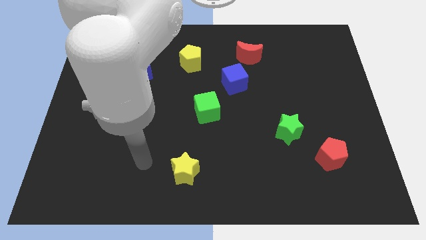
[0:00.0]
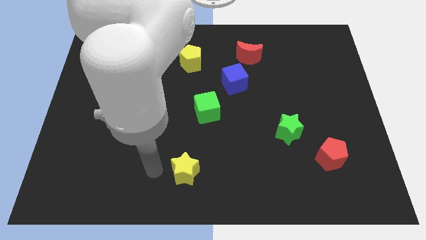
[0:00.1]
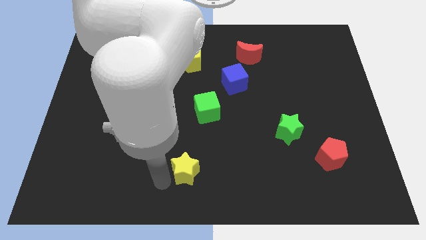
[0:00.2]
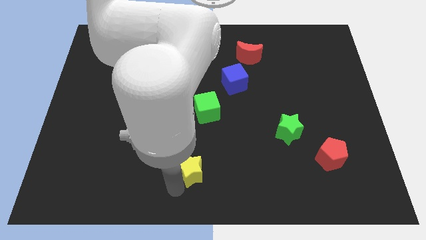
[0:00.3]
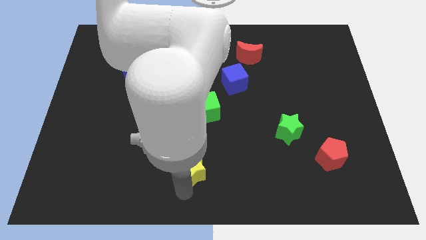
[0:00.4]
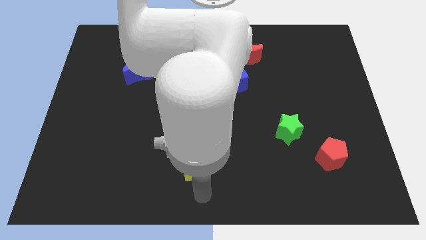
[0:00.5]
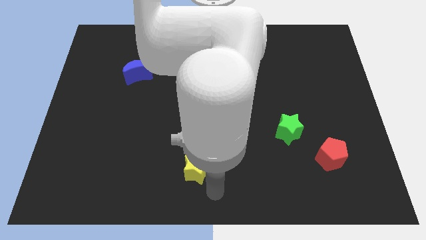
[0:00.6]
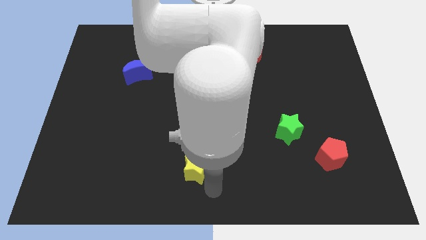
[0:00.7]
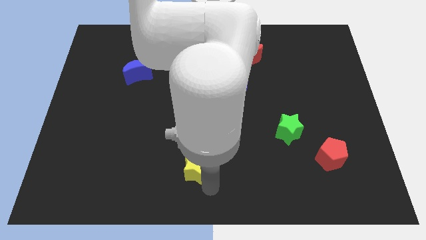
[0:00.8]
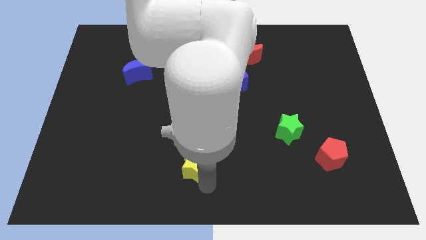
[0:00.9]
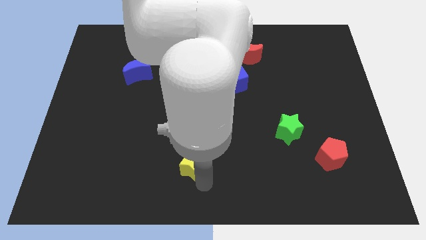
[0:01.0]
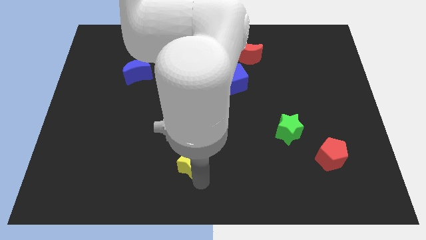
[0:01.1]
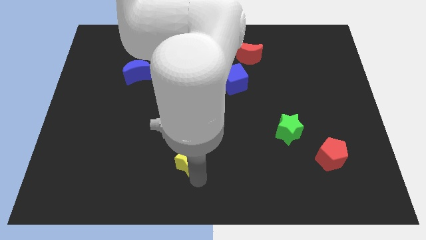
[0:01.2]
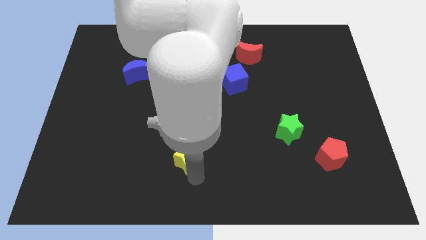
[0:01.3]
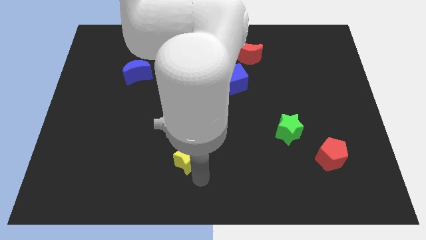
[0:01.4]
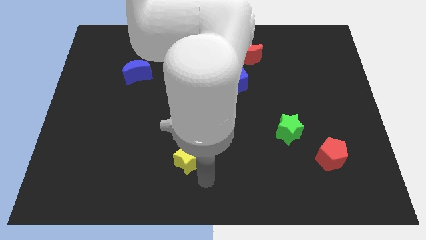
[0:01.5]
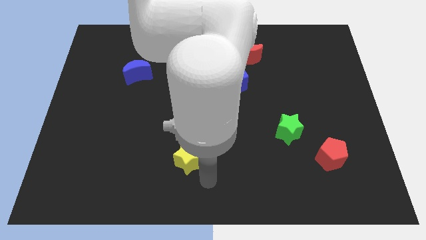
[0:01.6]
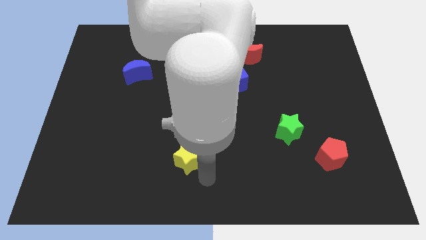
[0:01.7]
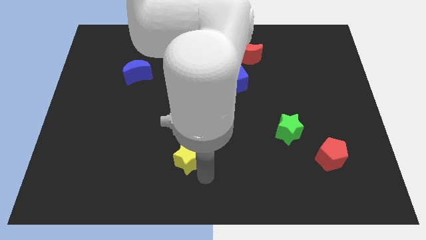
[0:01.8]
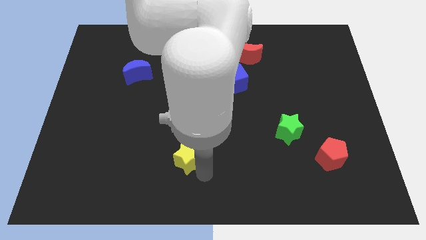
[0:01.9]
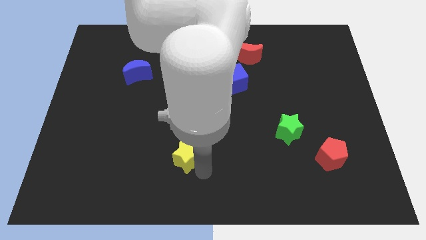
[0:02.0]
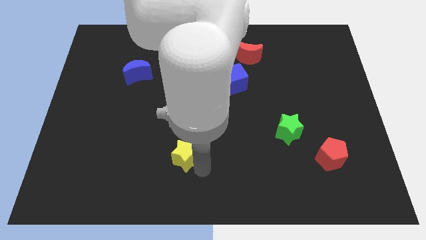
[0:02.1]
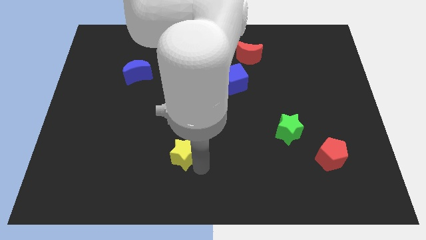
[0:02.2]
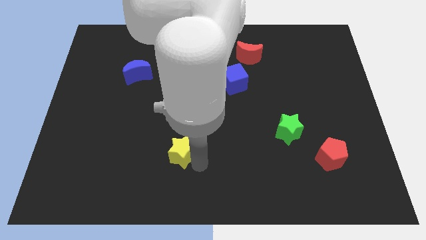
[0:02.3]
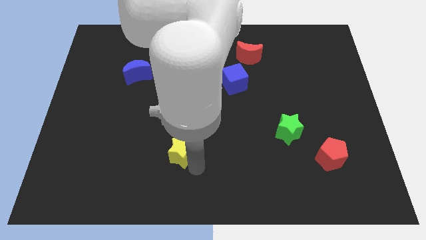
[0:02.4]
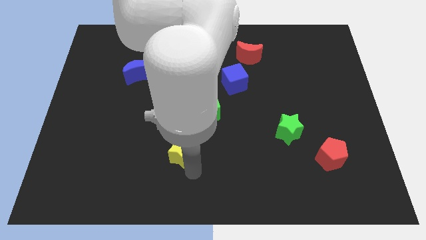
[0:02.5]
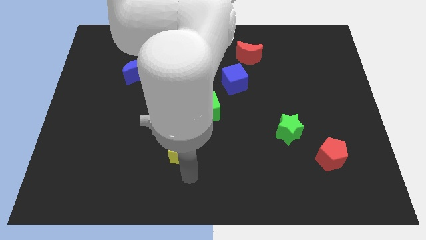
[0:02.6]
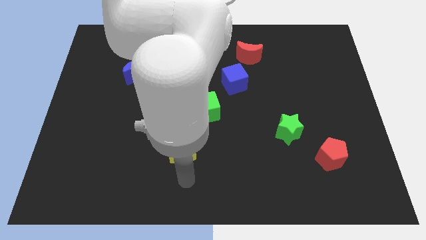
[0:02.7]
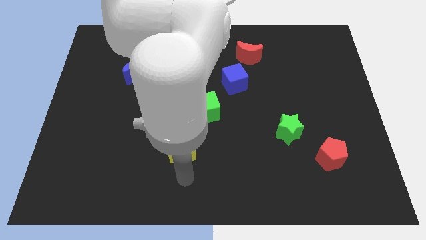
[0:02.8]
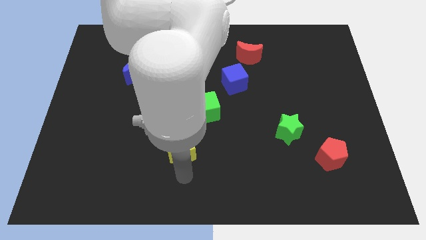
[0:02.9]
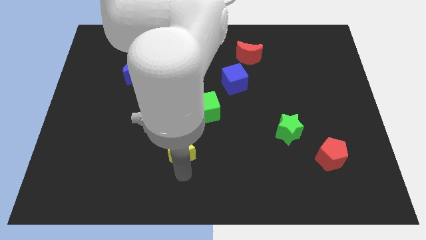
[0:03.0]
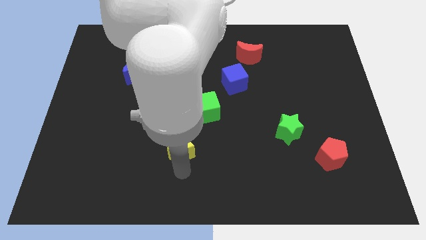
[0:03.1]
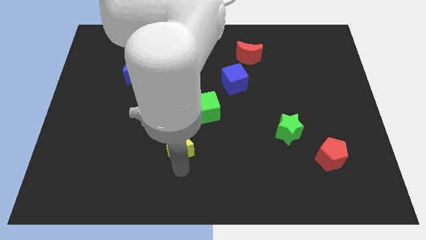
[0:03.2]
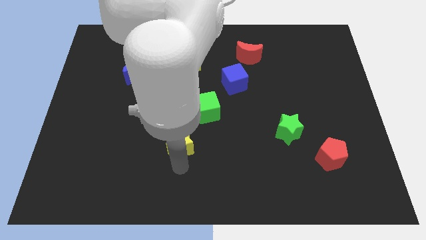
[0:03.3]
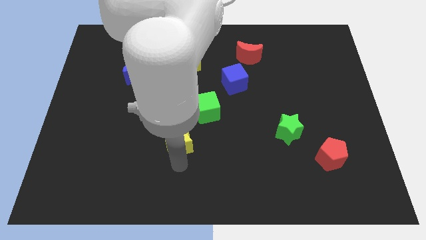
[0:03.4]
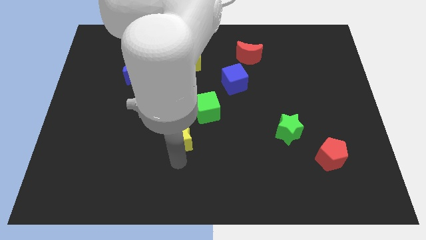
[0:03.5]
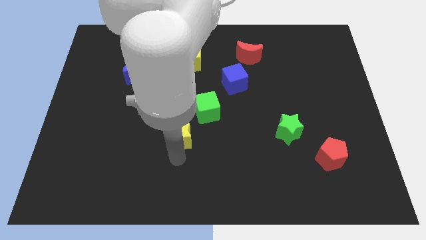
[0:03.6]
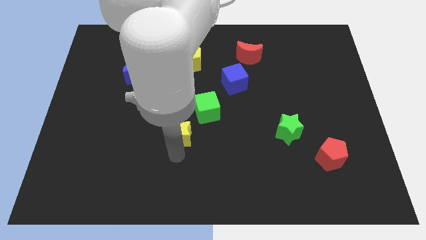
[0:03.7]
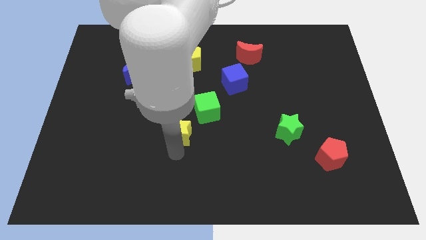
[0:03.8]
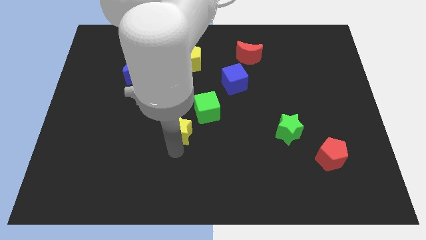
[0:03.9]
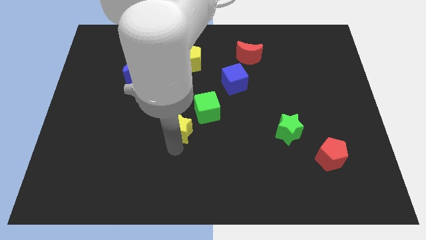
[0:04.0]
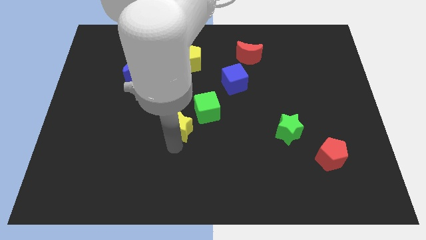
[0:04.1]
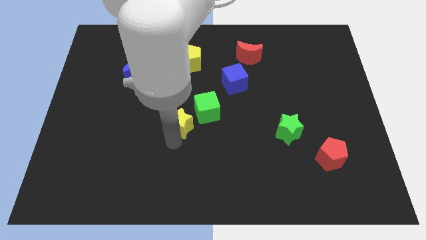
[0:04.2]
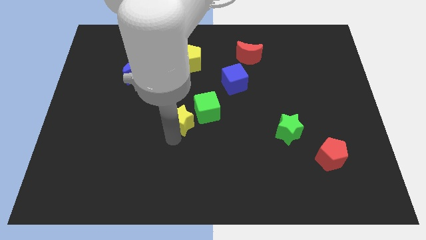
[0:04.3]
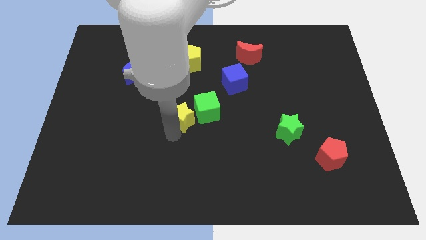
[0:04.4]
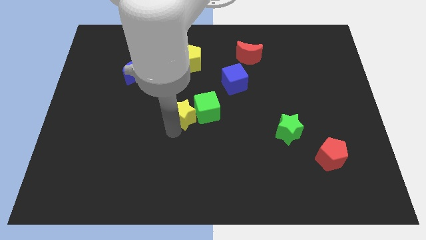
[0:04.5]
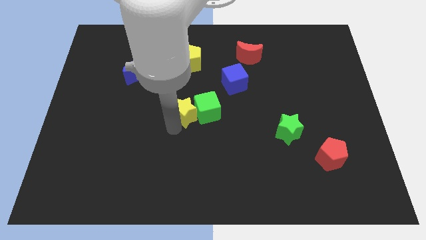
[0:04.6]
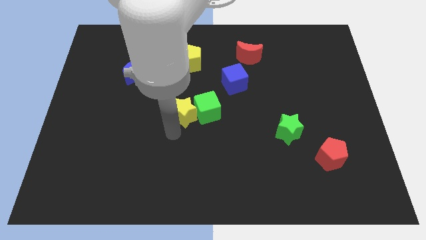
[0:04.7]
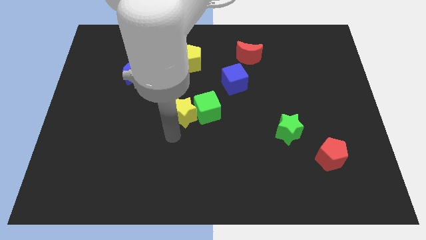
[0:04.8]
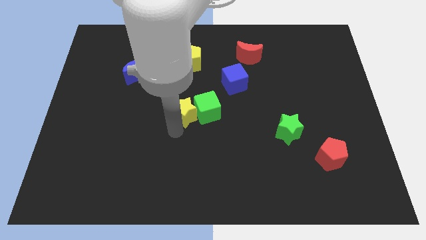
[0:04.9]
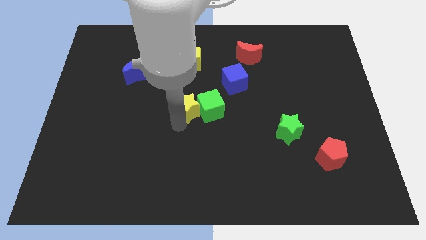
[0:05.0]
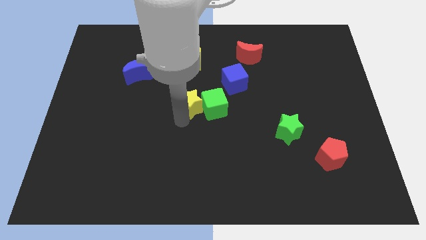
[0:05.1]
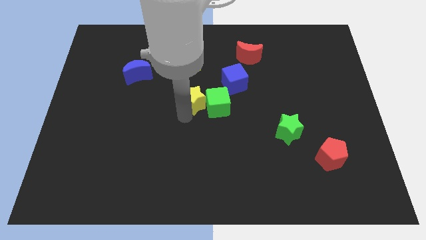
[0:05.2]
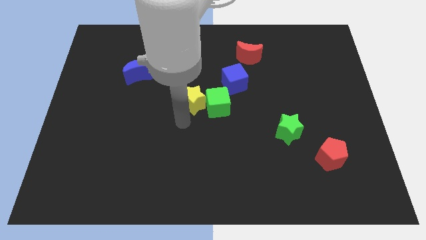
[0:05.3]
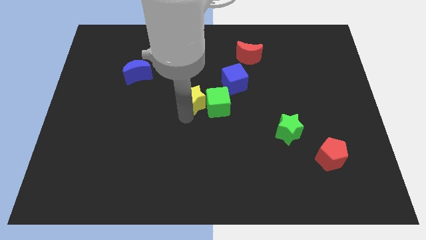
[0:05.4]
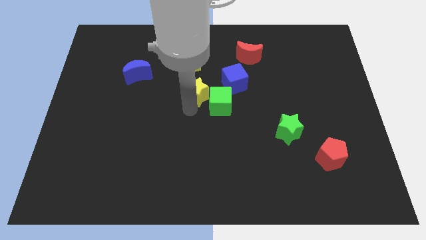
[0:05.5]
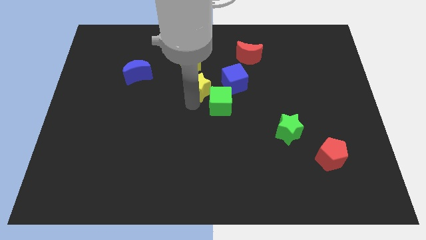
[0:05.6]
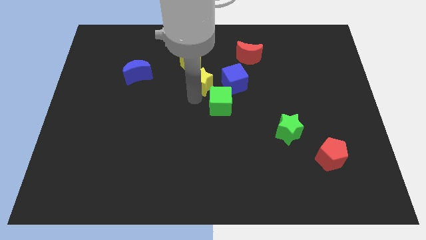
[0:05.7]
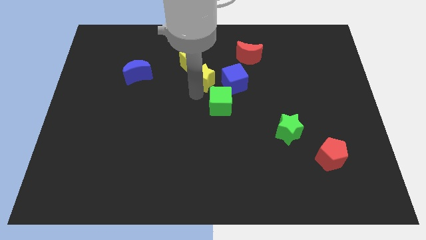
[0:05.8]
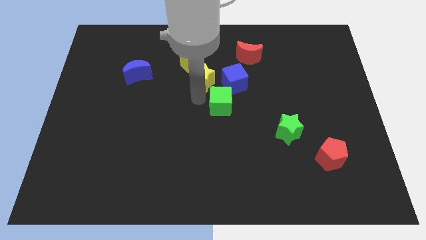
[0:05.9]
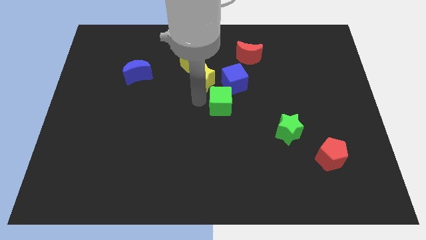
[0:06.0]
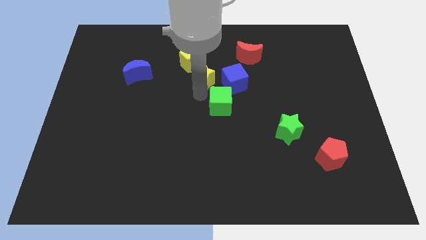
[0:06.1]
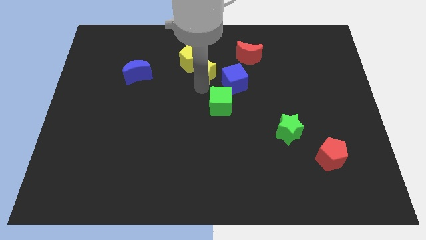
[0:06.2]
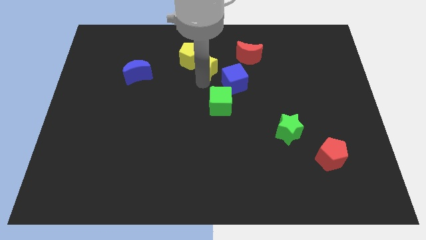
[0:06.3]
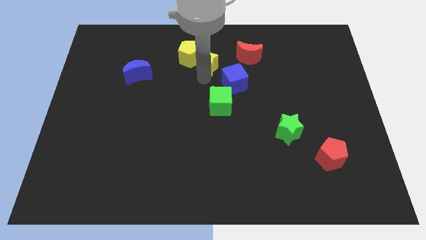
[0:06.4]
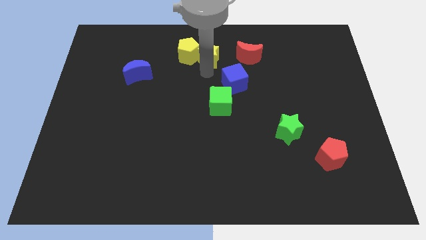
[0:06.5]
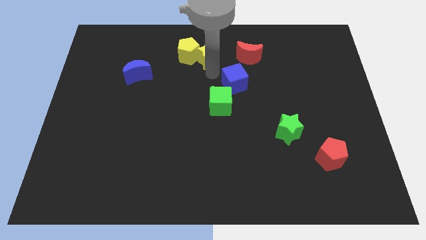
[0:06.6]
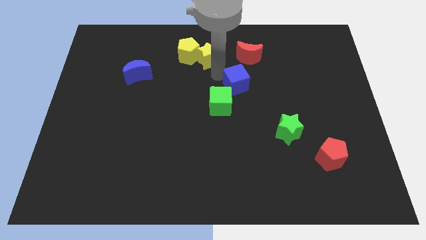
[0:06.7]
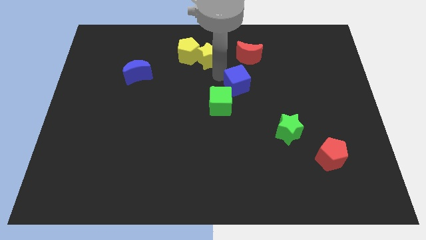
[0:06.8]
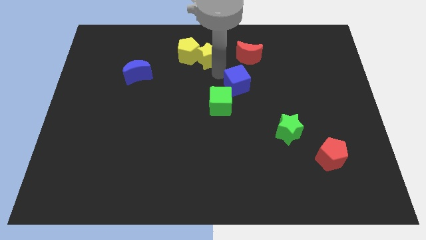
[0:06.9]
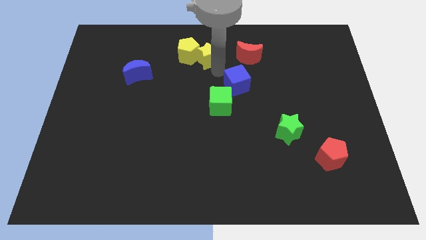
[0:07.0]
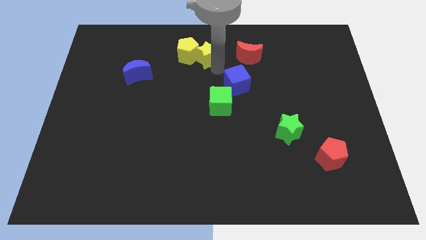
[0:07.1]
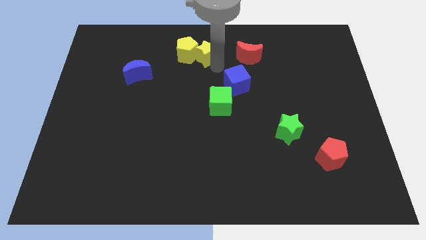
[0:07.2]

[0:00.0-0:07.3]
put the yellow star to the towards your base
